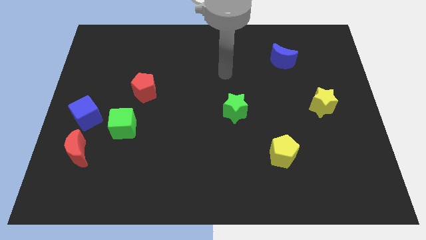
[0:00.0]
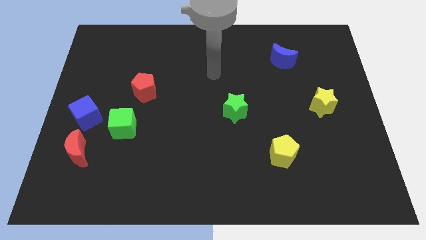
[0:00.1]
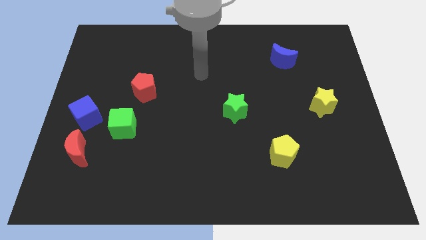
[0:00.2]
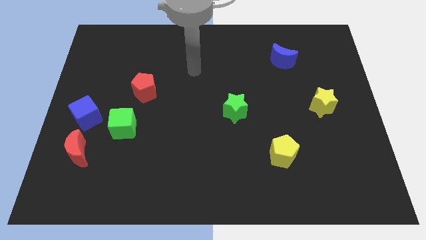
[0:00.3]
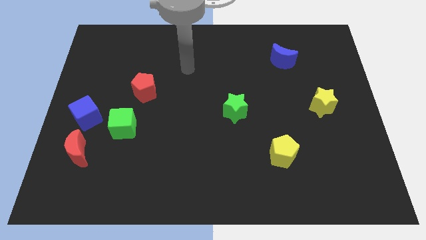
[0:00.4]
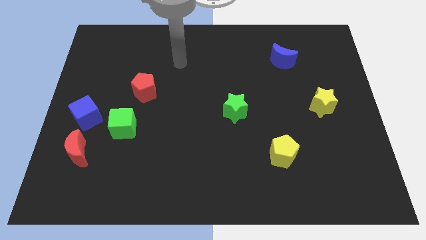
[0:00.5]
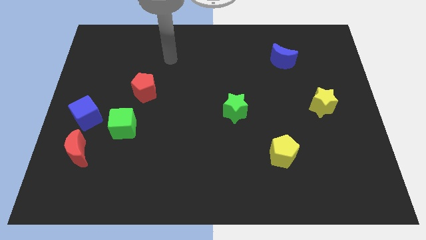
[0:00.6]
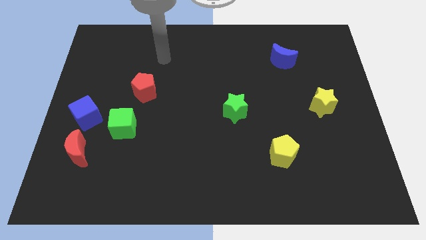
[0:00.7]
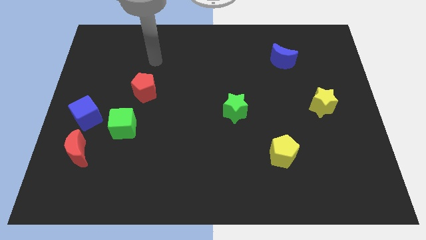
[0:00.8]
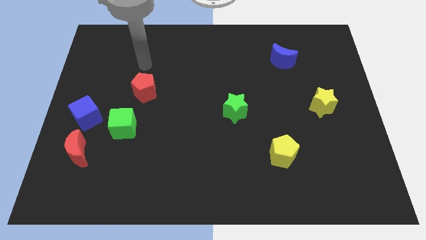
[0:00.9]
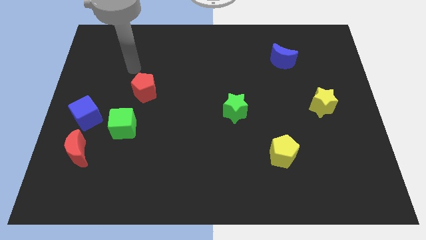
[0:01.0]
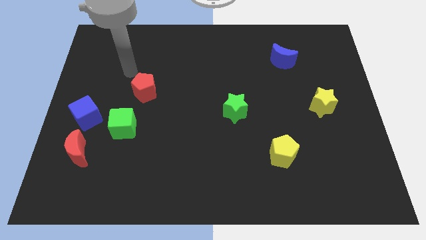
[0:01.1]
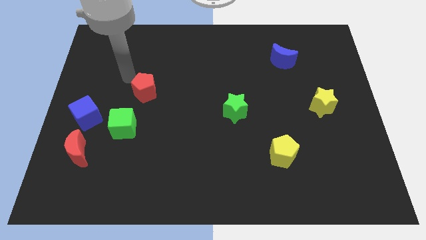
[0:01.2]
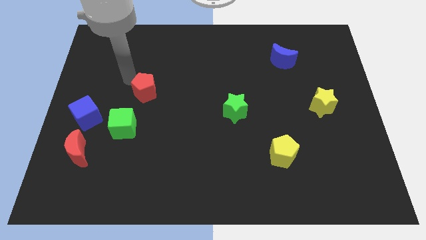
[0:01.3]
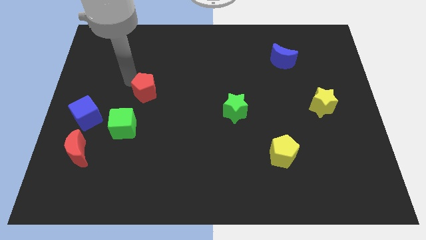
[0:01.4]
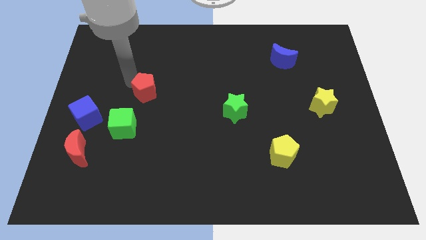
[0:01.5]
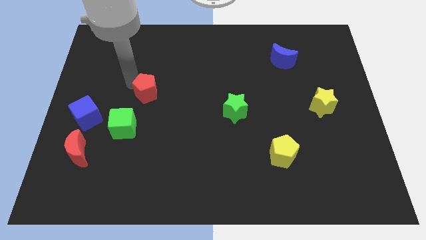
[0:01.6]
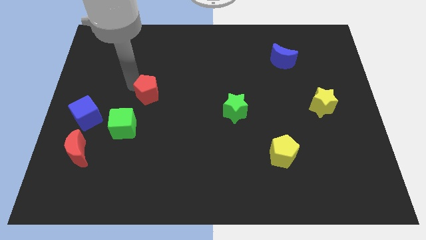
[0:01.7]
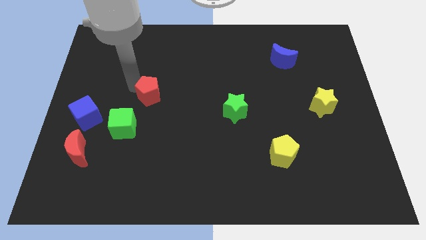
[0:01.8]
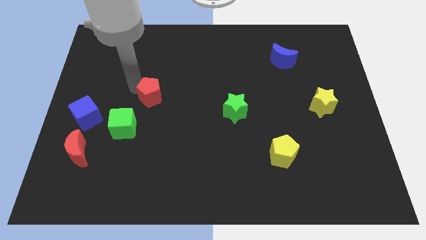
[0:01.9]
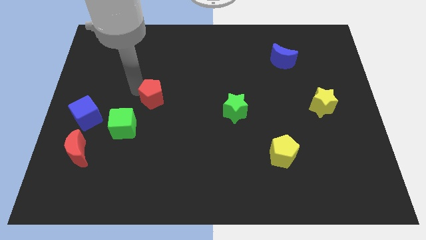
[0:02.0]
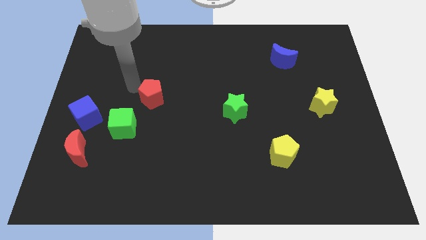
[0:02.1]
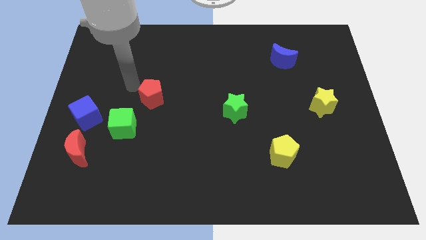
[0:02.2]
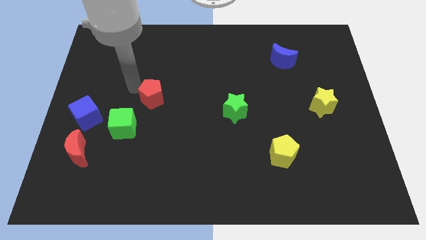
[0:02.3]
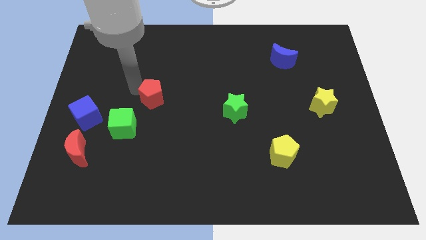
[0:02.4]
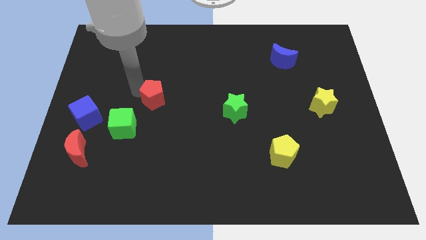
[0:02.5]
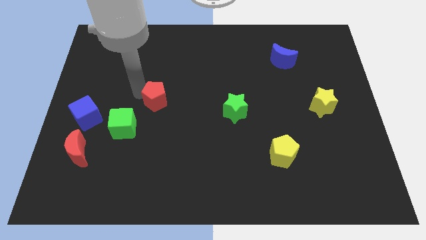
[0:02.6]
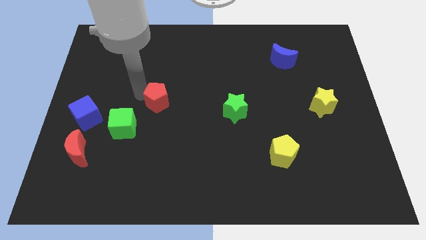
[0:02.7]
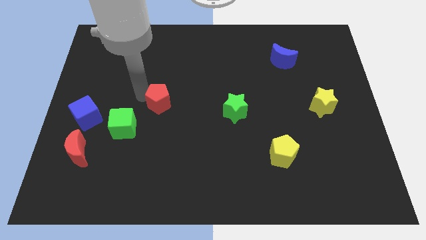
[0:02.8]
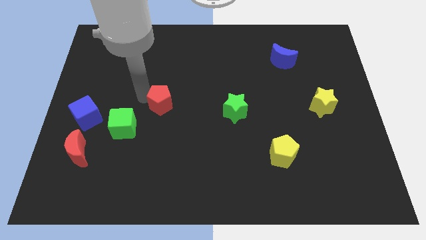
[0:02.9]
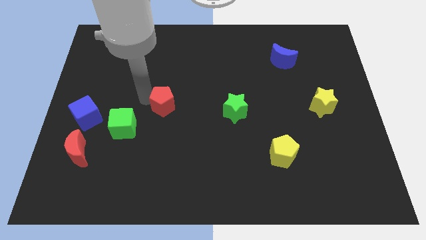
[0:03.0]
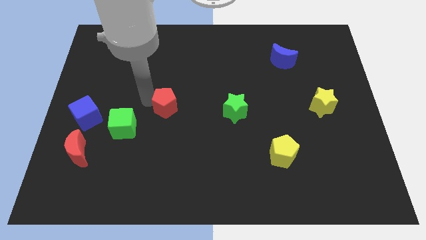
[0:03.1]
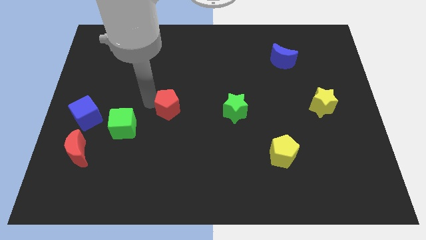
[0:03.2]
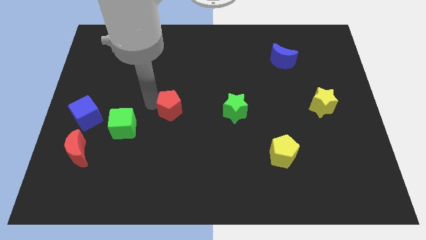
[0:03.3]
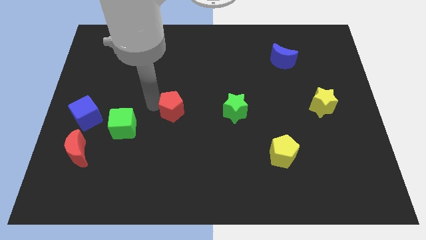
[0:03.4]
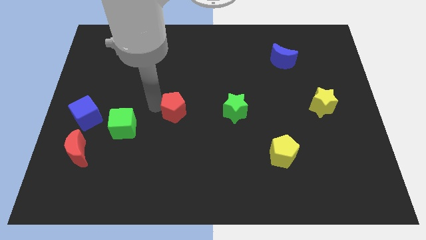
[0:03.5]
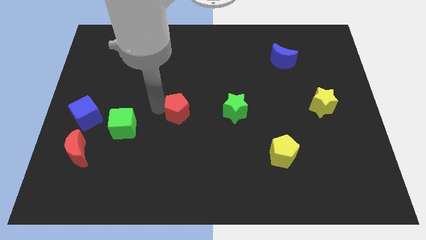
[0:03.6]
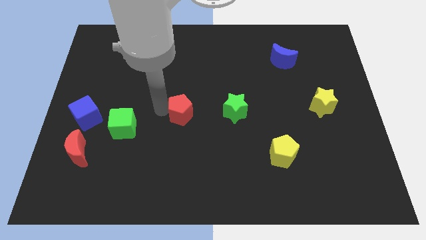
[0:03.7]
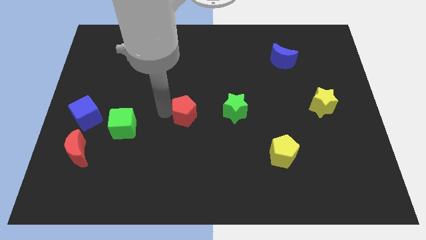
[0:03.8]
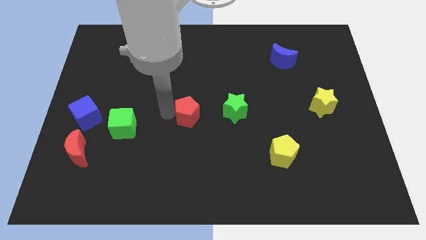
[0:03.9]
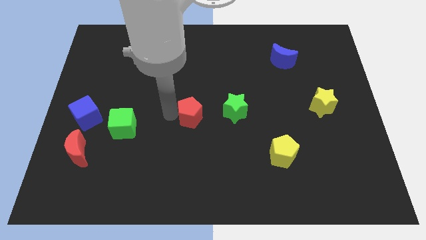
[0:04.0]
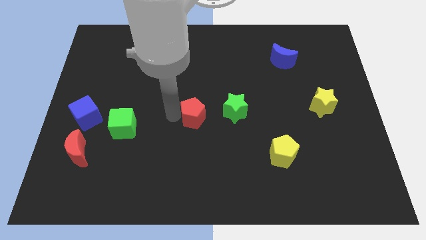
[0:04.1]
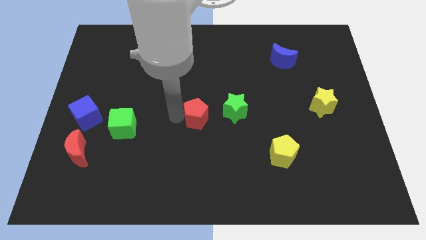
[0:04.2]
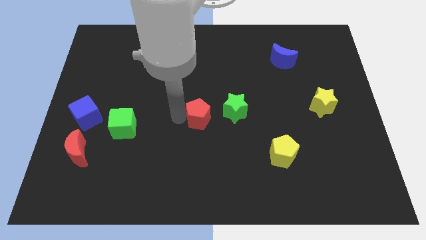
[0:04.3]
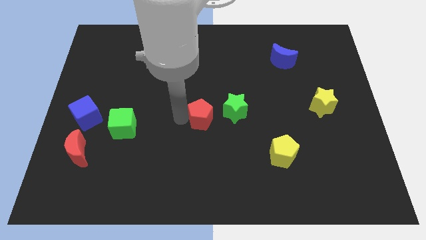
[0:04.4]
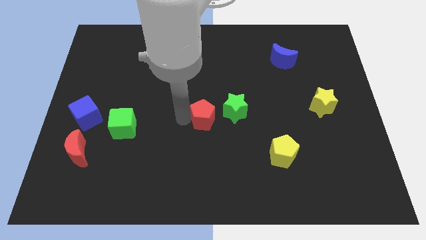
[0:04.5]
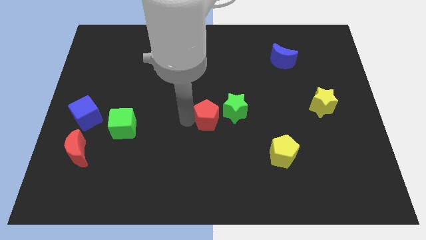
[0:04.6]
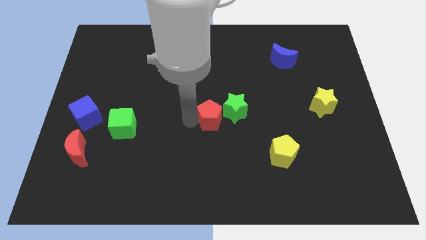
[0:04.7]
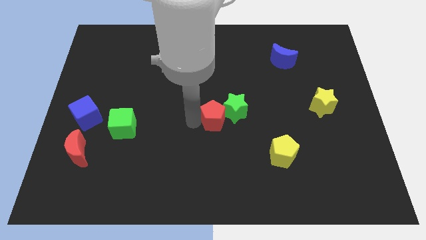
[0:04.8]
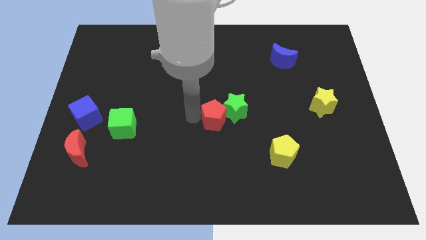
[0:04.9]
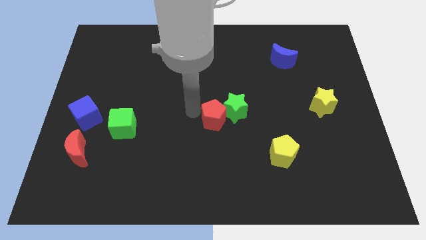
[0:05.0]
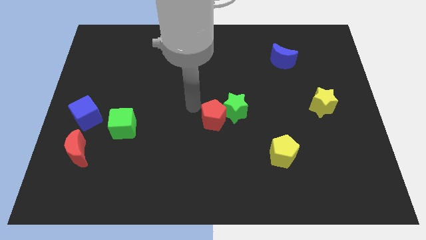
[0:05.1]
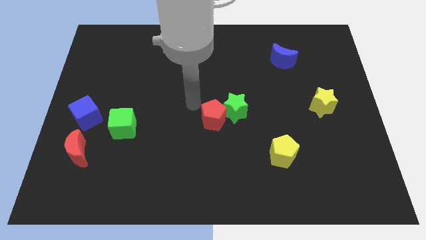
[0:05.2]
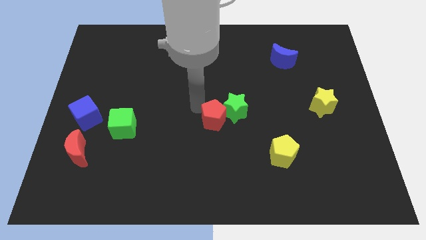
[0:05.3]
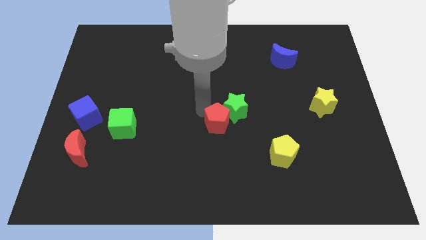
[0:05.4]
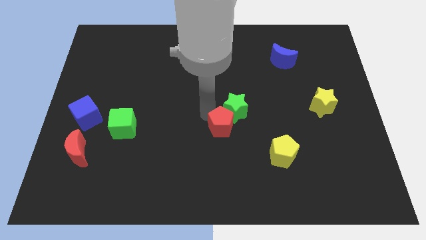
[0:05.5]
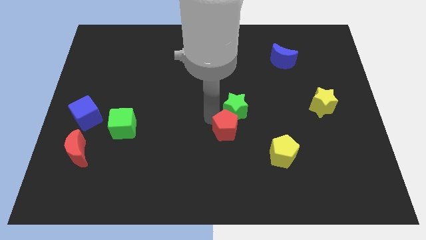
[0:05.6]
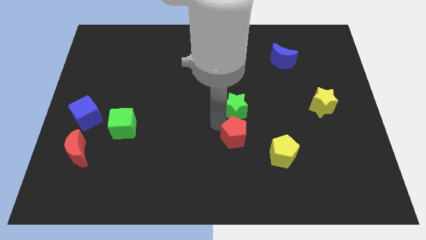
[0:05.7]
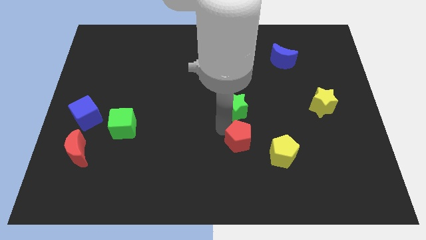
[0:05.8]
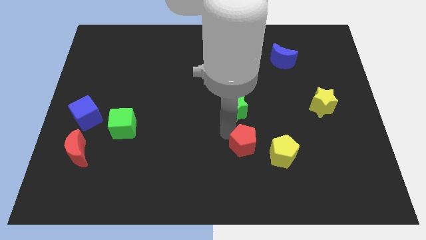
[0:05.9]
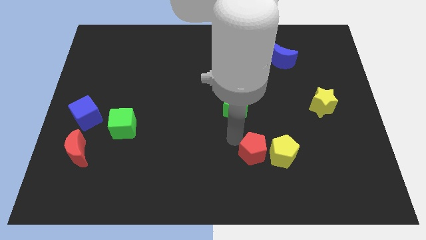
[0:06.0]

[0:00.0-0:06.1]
move the red pentagon towards the yellow pentagon

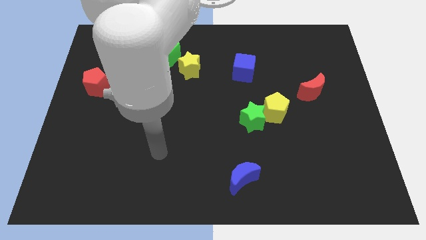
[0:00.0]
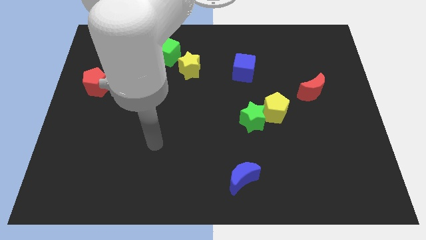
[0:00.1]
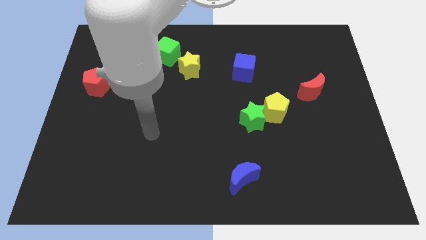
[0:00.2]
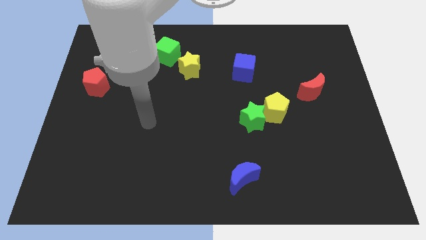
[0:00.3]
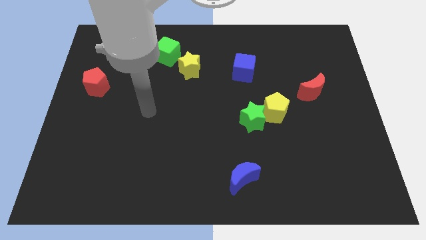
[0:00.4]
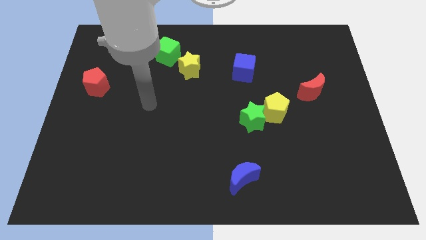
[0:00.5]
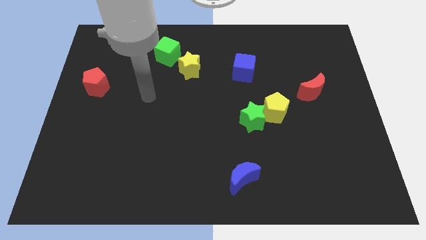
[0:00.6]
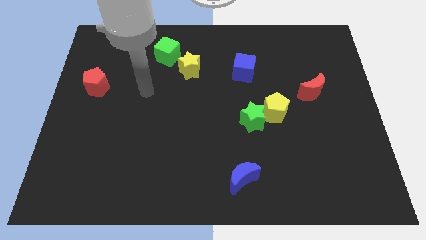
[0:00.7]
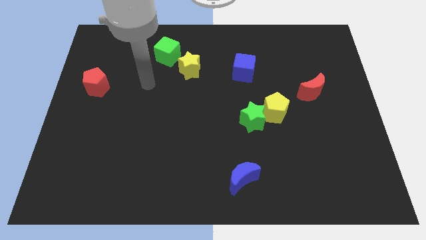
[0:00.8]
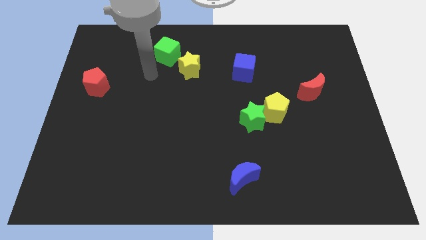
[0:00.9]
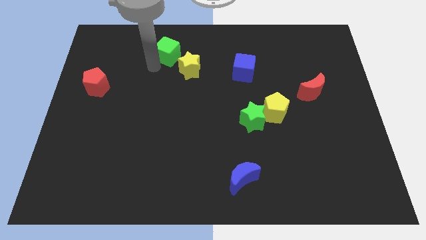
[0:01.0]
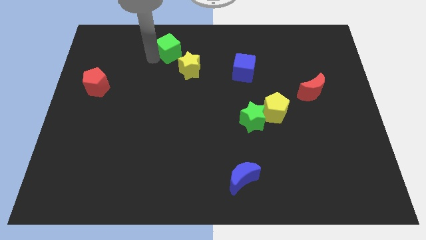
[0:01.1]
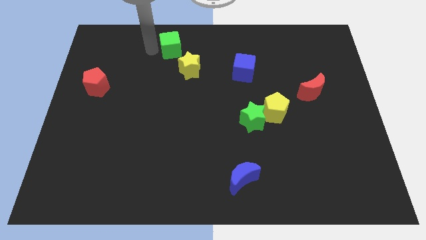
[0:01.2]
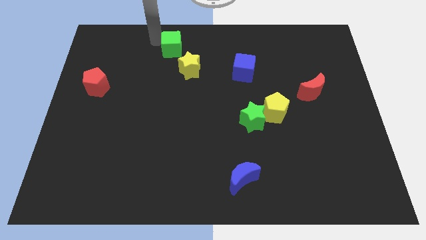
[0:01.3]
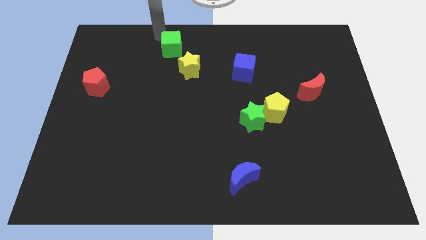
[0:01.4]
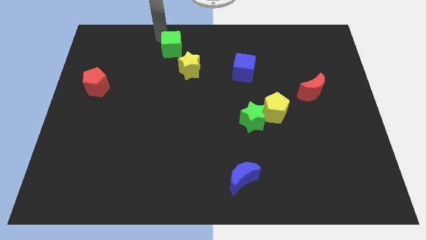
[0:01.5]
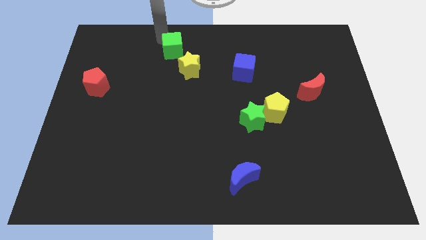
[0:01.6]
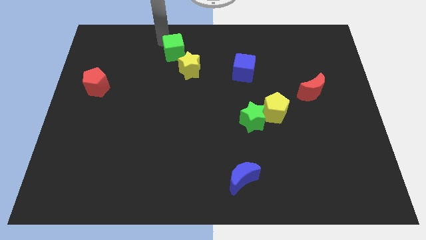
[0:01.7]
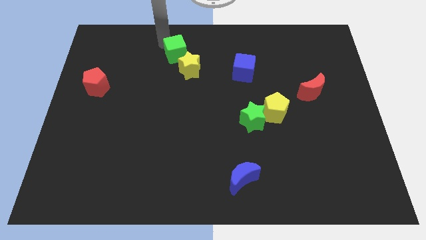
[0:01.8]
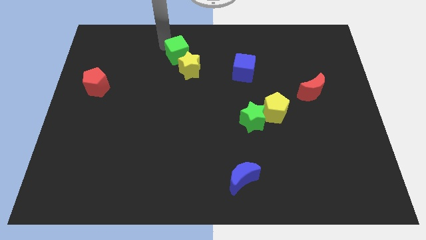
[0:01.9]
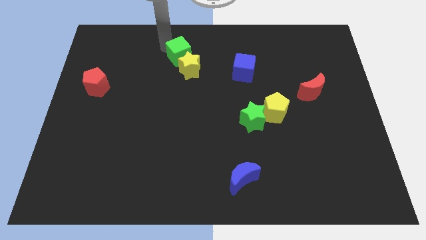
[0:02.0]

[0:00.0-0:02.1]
push the green cube to the yellow star

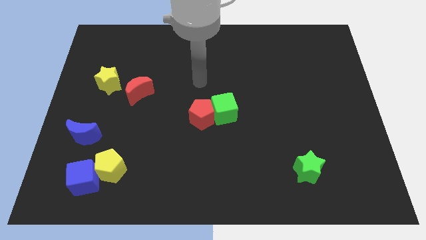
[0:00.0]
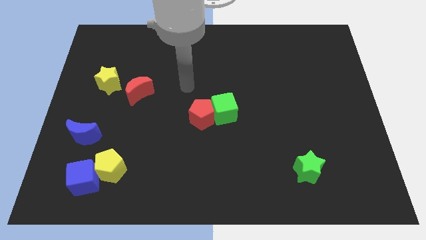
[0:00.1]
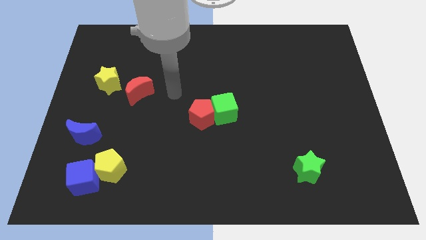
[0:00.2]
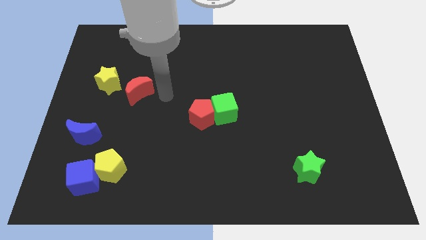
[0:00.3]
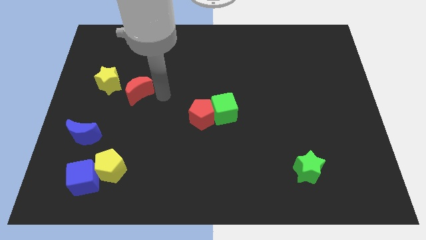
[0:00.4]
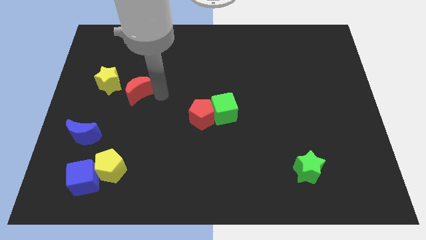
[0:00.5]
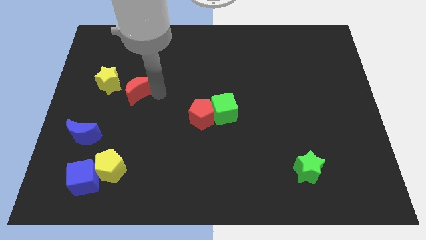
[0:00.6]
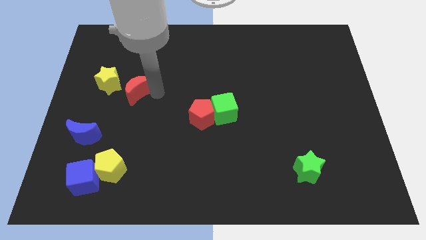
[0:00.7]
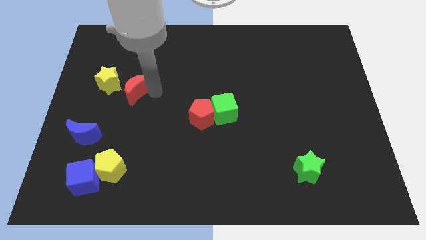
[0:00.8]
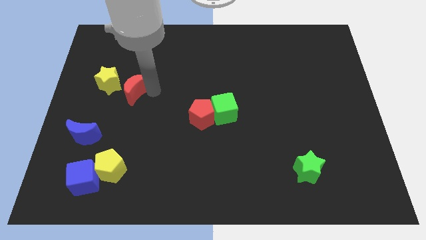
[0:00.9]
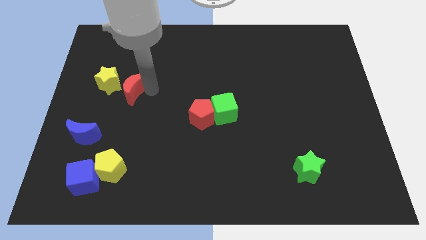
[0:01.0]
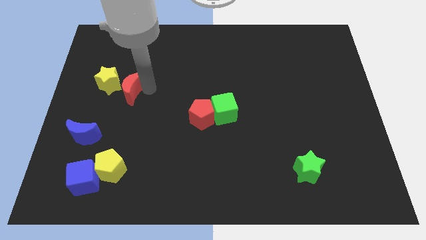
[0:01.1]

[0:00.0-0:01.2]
move the red moon towards the yellow star
